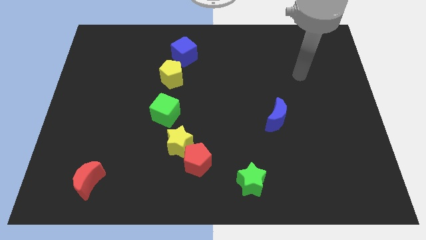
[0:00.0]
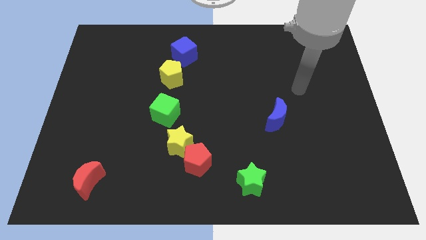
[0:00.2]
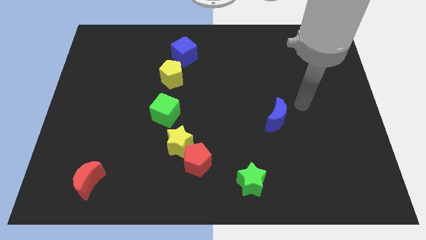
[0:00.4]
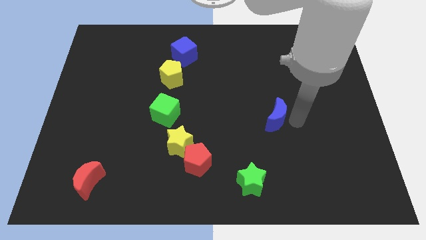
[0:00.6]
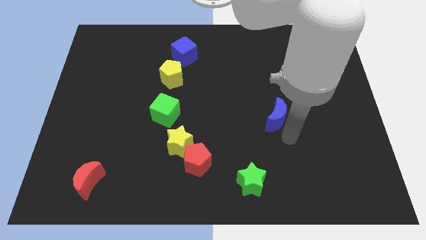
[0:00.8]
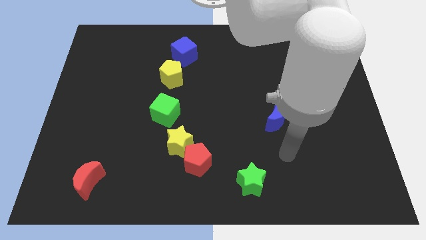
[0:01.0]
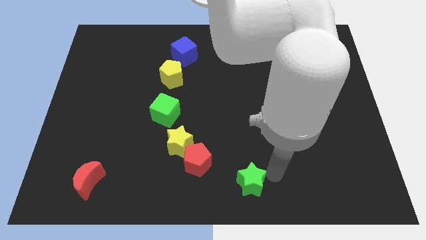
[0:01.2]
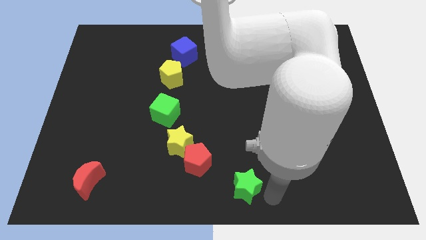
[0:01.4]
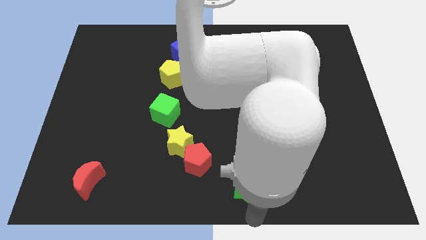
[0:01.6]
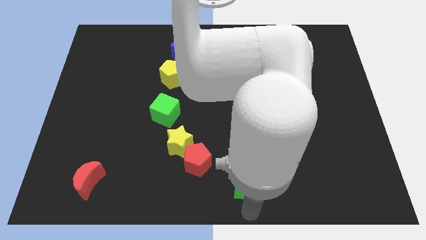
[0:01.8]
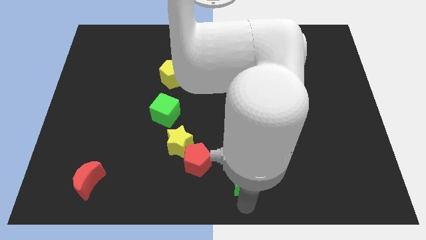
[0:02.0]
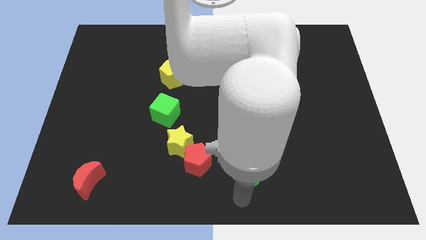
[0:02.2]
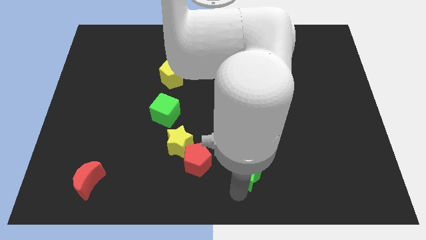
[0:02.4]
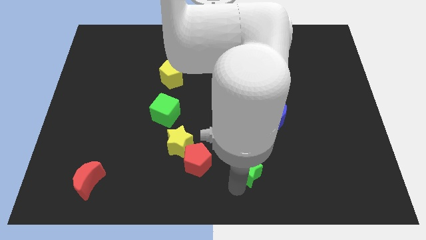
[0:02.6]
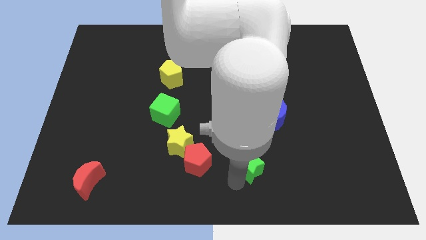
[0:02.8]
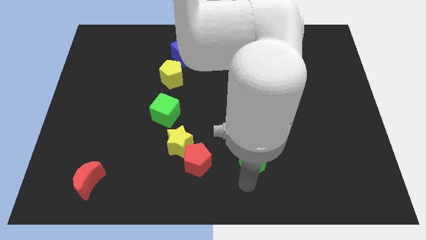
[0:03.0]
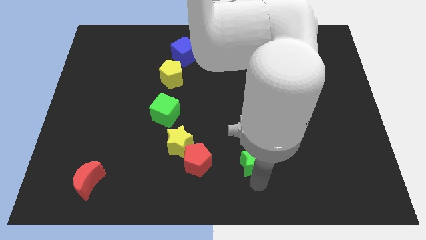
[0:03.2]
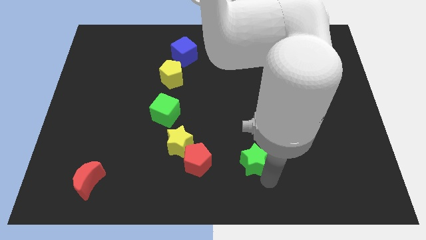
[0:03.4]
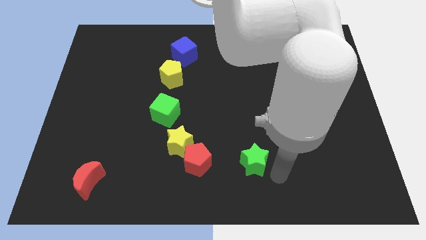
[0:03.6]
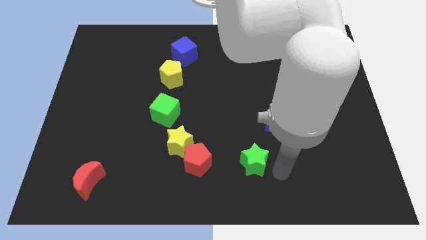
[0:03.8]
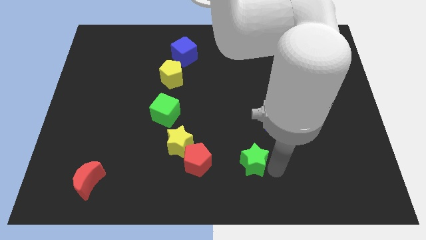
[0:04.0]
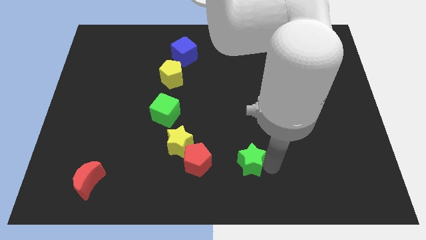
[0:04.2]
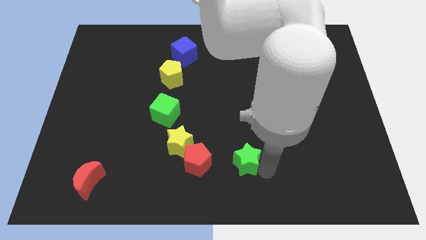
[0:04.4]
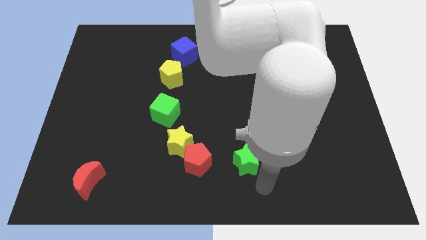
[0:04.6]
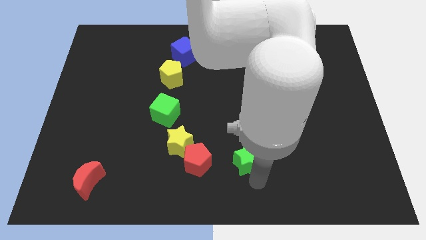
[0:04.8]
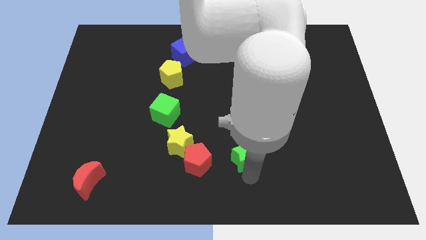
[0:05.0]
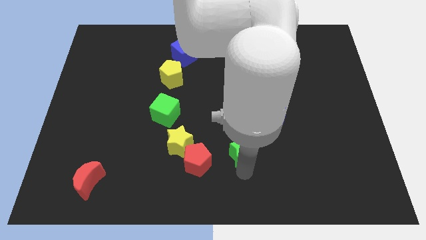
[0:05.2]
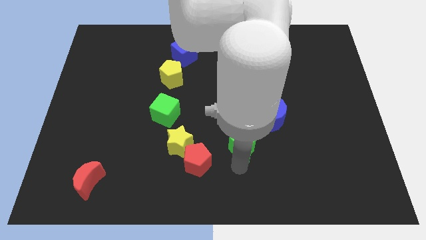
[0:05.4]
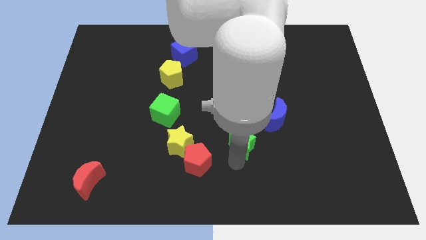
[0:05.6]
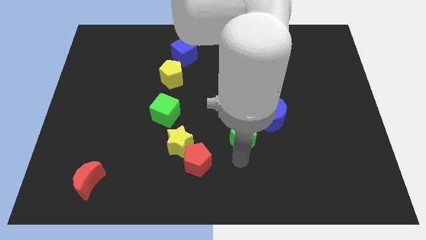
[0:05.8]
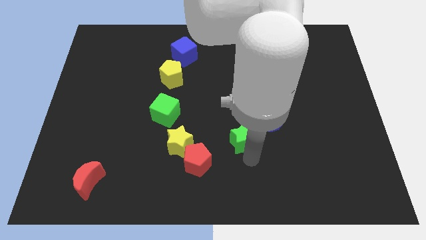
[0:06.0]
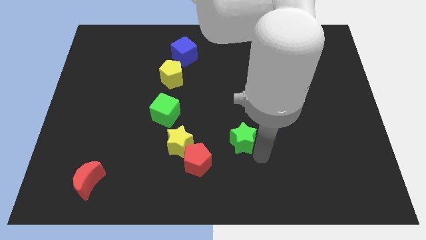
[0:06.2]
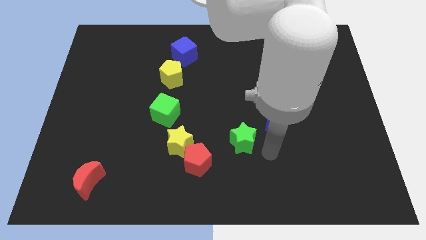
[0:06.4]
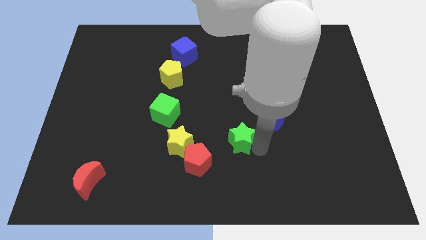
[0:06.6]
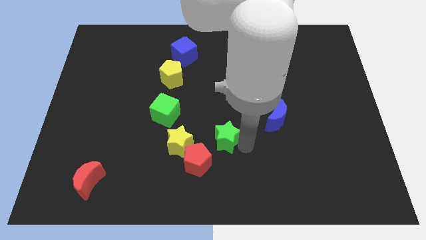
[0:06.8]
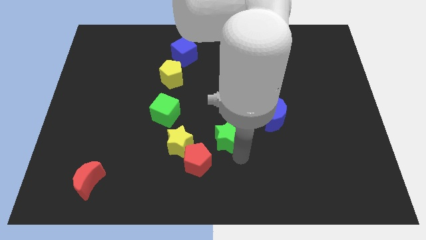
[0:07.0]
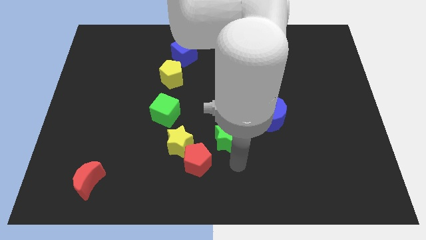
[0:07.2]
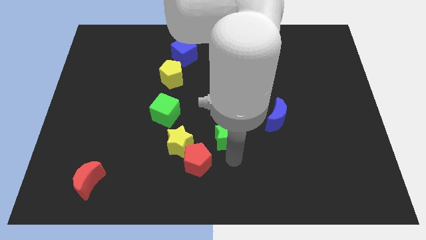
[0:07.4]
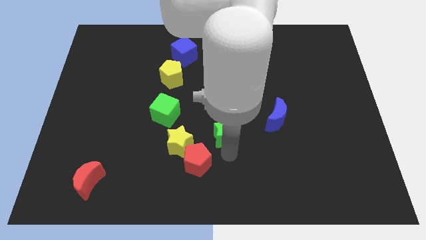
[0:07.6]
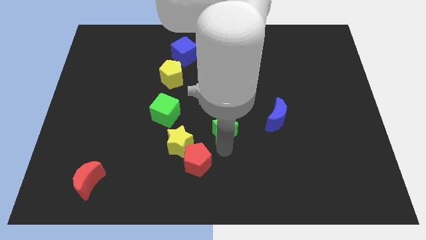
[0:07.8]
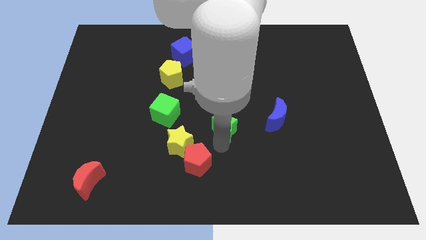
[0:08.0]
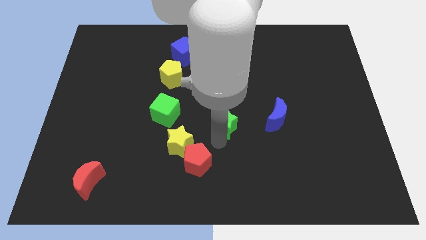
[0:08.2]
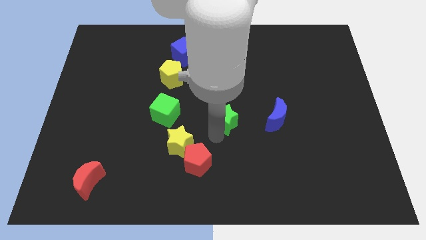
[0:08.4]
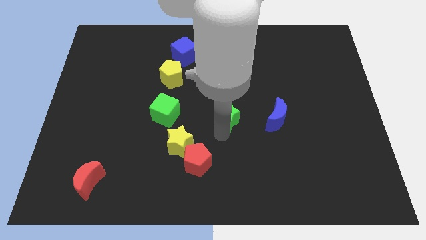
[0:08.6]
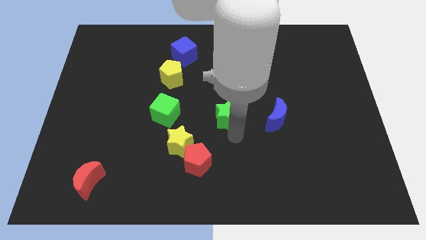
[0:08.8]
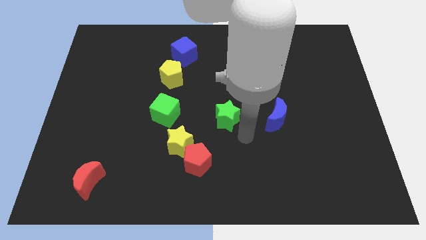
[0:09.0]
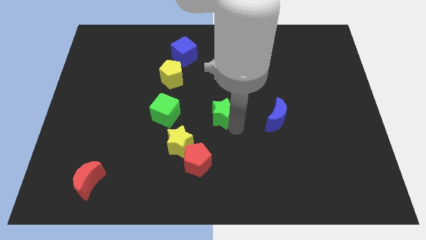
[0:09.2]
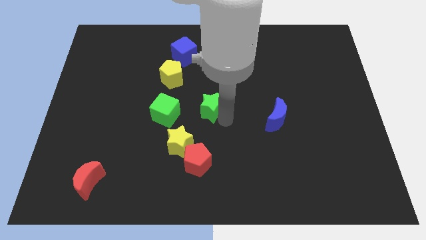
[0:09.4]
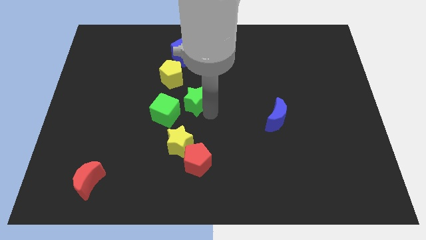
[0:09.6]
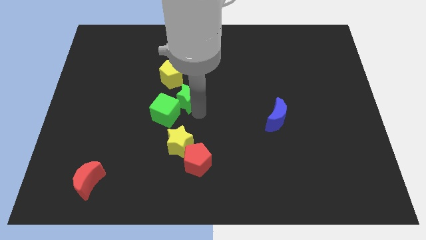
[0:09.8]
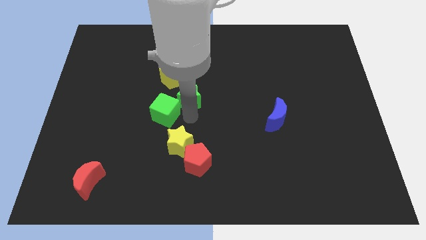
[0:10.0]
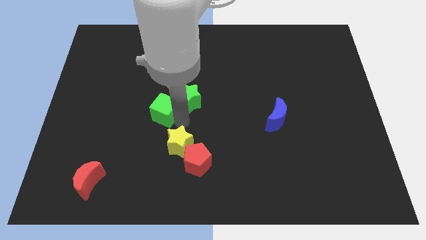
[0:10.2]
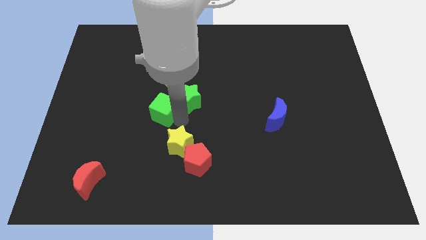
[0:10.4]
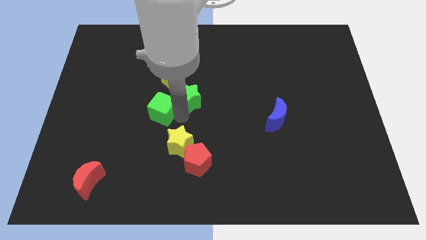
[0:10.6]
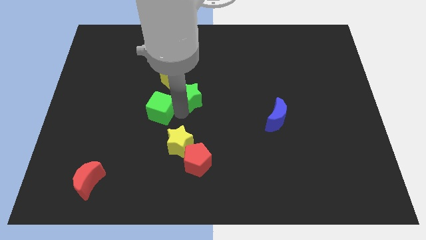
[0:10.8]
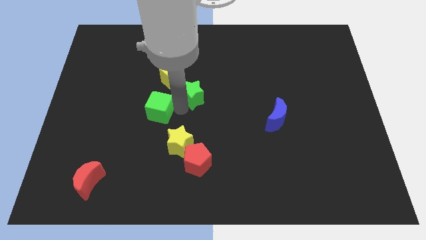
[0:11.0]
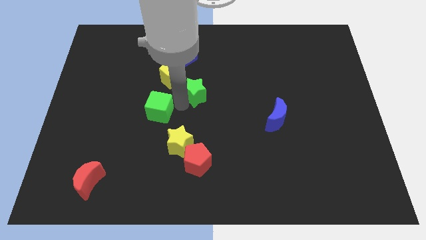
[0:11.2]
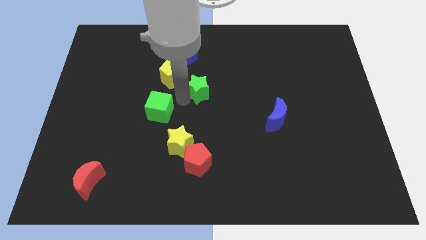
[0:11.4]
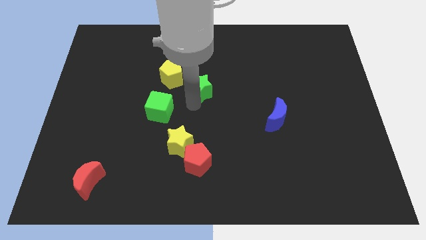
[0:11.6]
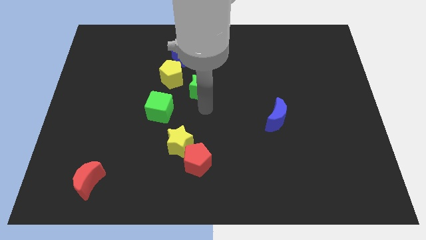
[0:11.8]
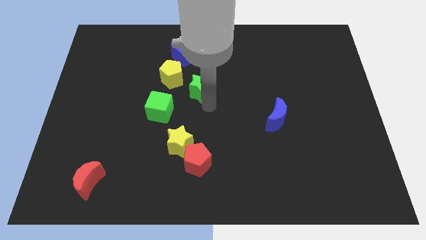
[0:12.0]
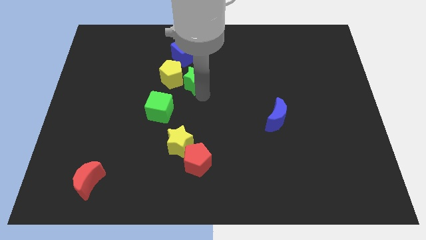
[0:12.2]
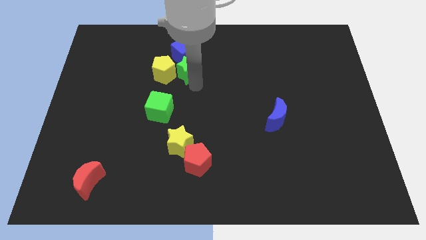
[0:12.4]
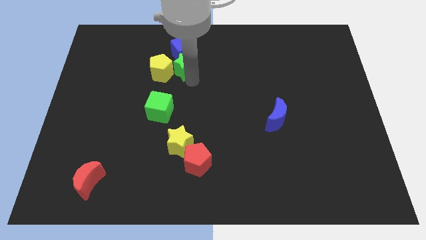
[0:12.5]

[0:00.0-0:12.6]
push the green star towards the blue cube

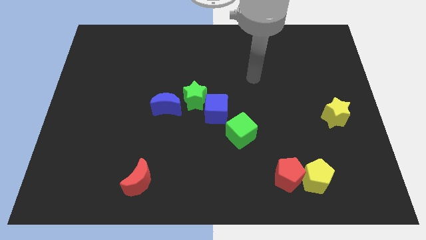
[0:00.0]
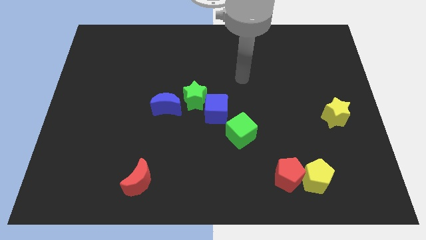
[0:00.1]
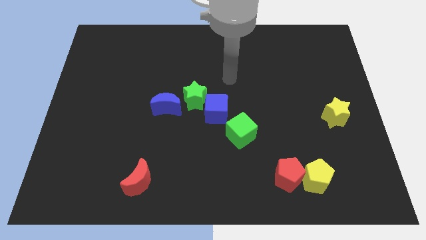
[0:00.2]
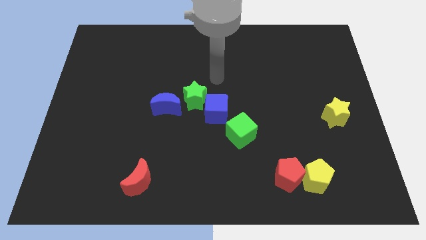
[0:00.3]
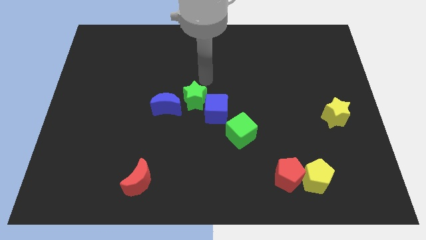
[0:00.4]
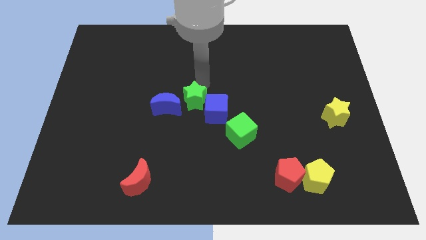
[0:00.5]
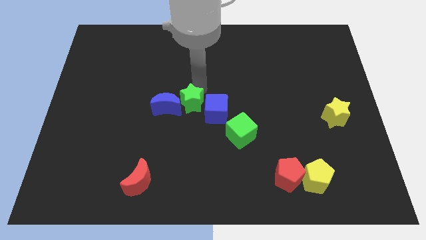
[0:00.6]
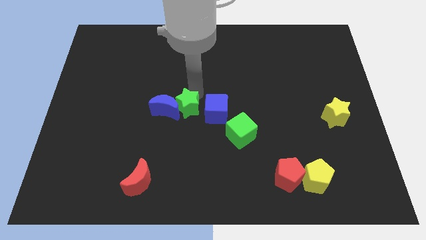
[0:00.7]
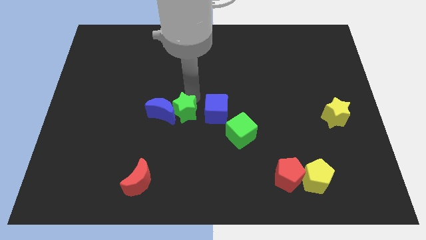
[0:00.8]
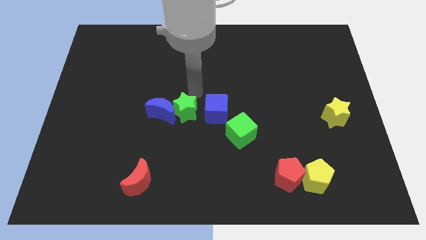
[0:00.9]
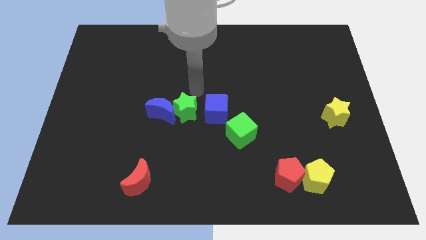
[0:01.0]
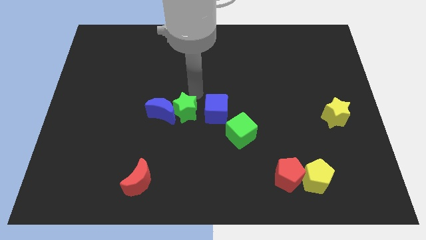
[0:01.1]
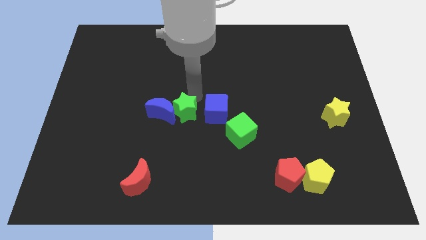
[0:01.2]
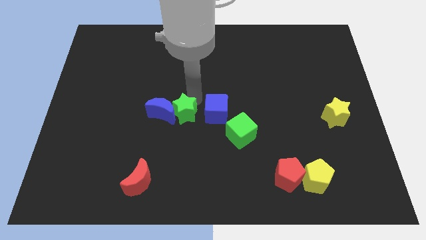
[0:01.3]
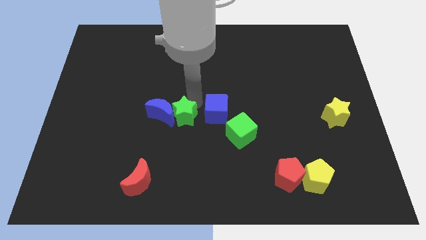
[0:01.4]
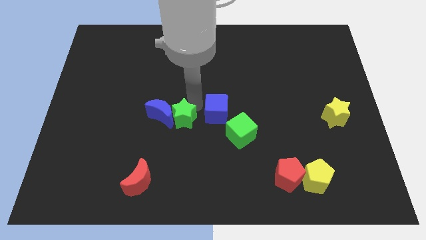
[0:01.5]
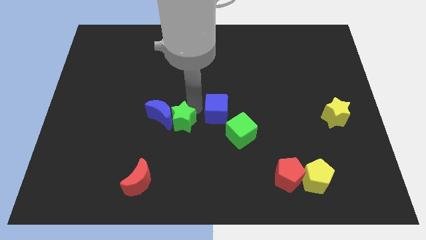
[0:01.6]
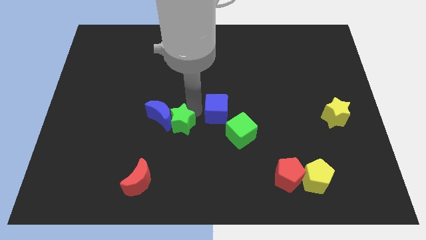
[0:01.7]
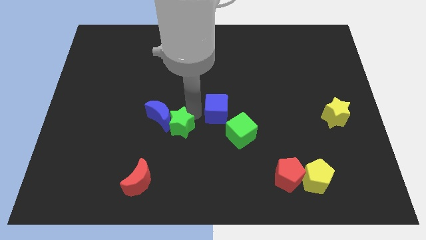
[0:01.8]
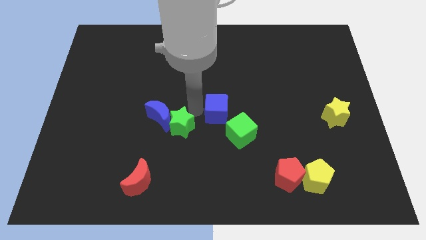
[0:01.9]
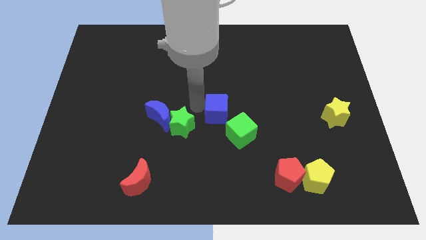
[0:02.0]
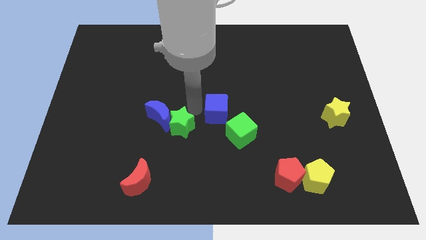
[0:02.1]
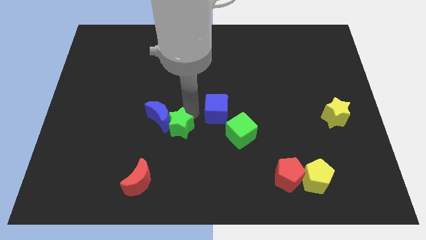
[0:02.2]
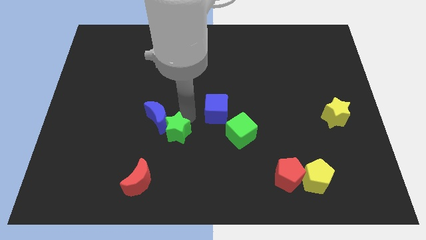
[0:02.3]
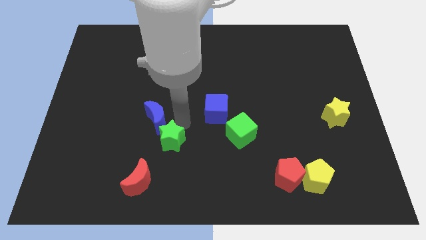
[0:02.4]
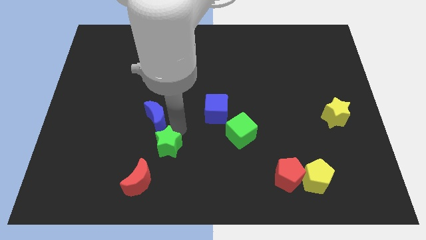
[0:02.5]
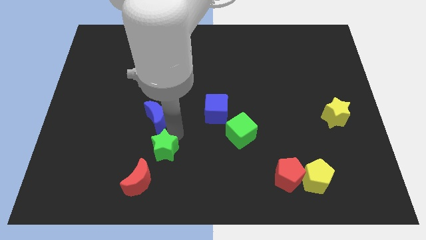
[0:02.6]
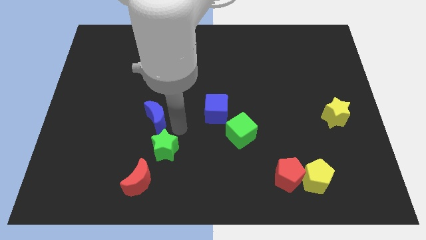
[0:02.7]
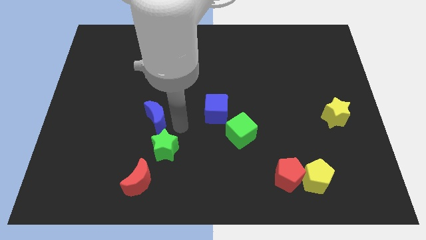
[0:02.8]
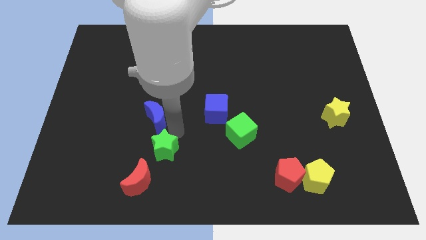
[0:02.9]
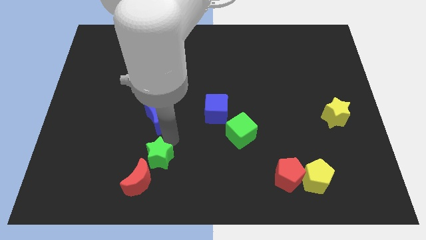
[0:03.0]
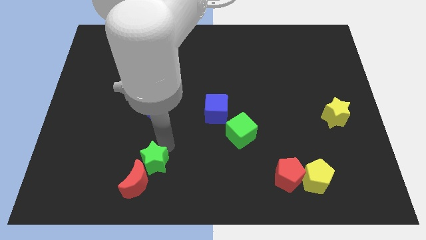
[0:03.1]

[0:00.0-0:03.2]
slide the green star close to the red moon
